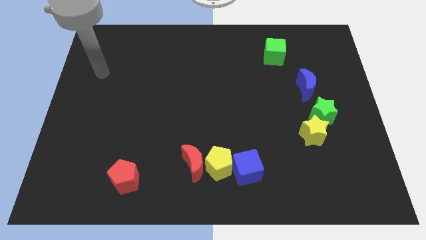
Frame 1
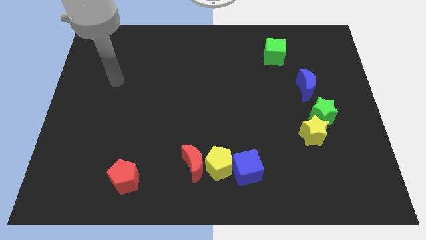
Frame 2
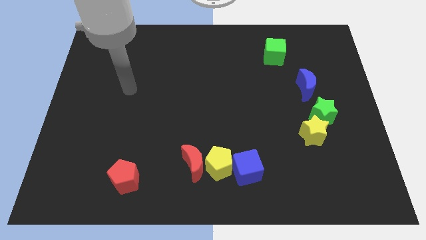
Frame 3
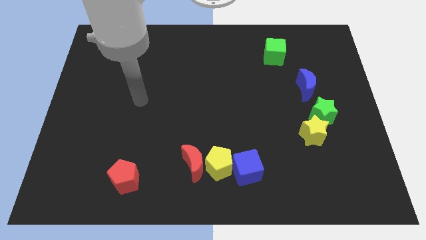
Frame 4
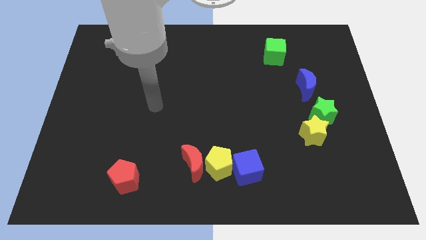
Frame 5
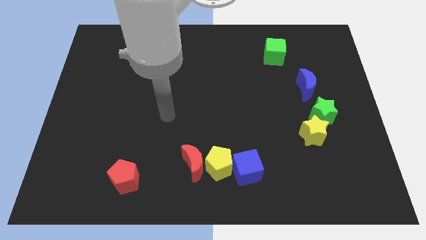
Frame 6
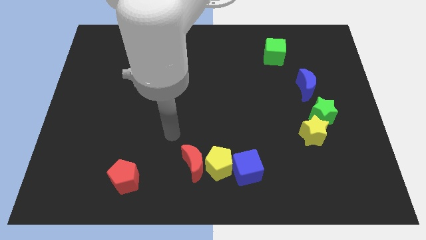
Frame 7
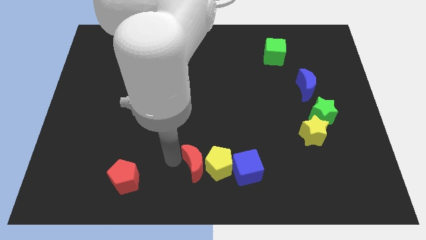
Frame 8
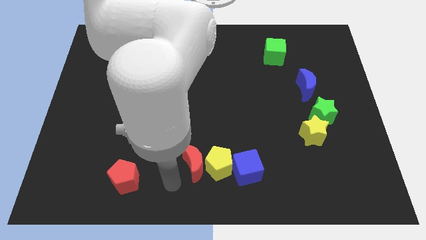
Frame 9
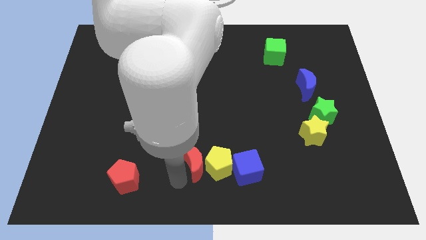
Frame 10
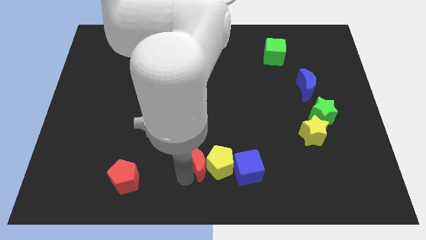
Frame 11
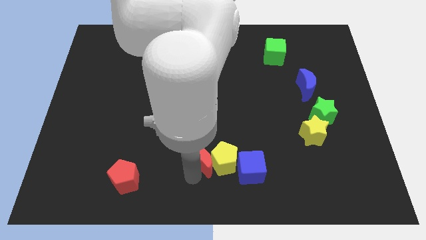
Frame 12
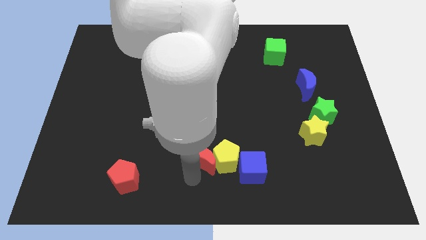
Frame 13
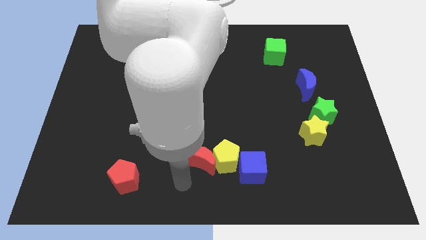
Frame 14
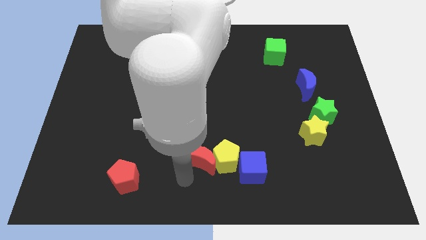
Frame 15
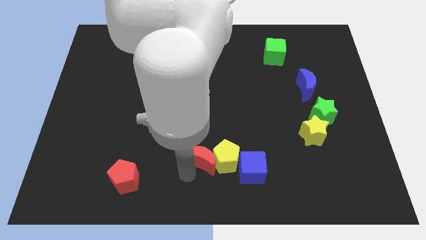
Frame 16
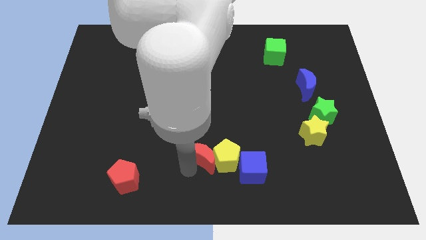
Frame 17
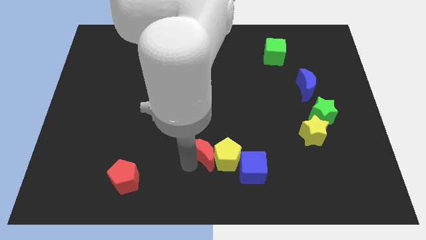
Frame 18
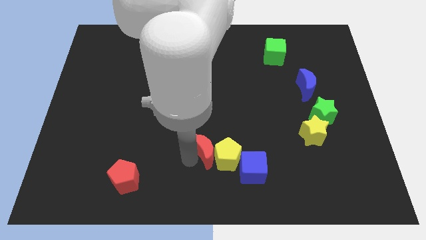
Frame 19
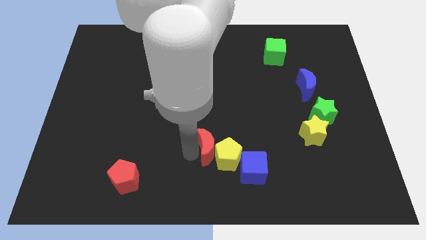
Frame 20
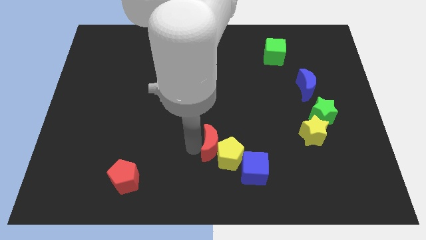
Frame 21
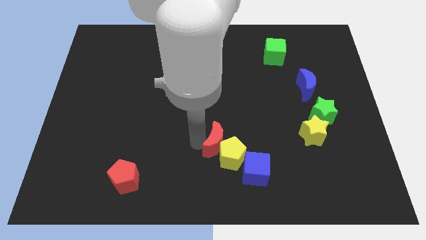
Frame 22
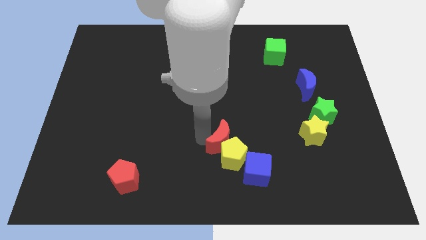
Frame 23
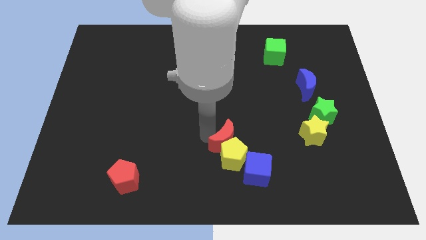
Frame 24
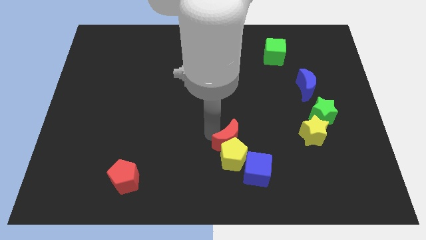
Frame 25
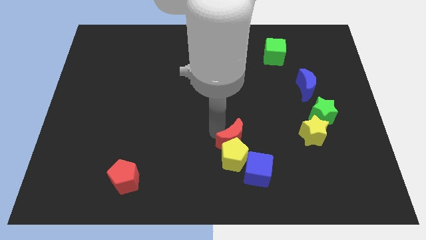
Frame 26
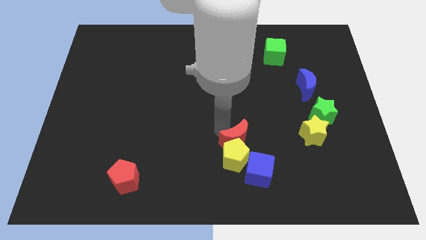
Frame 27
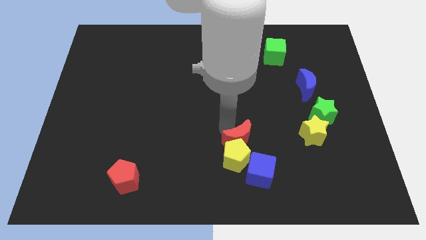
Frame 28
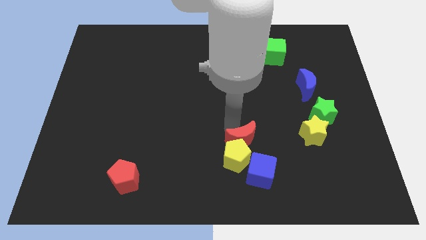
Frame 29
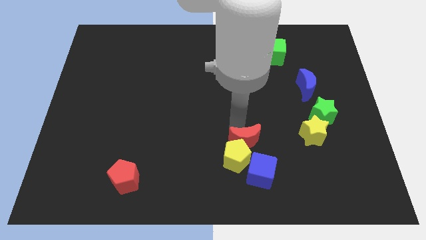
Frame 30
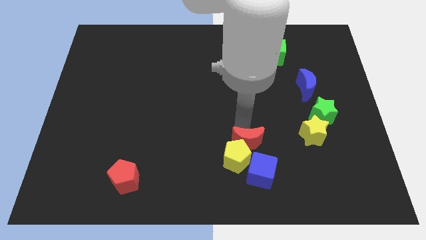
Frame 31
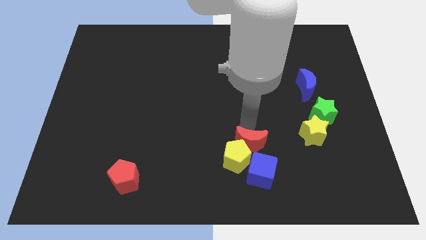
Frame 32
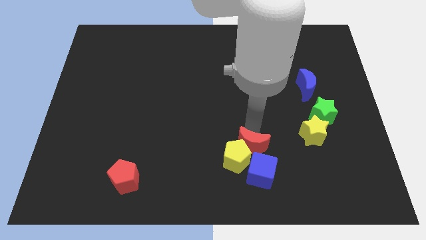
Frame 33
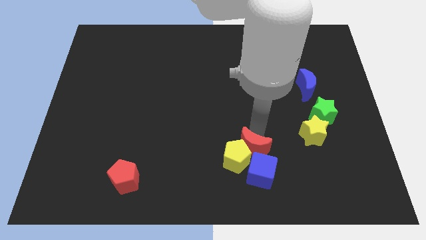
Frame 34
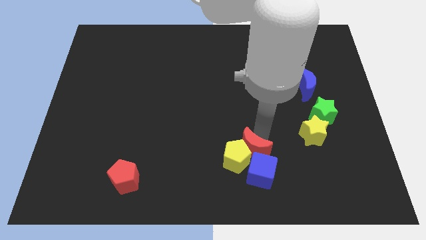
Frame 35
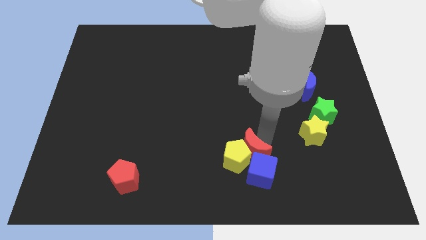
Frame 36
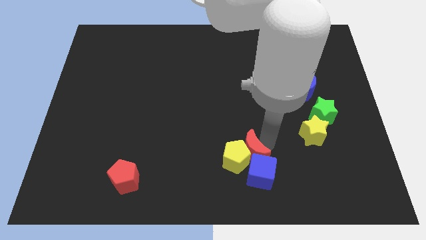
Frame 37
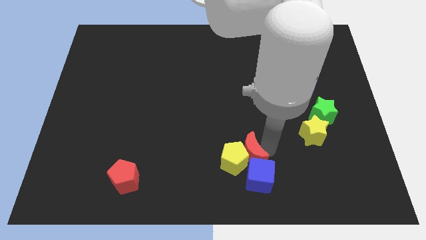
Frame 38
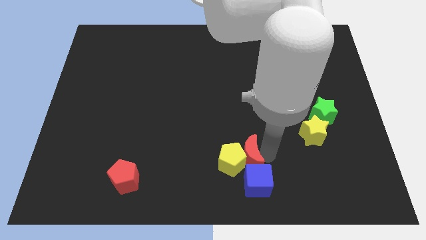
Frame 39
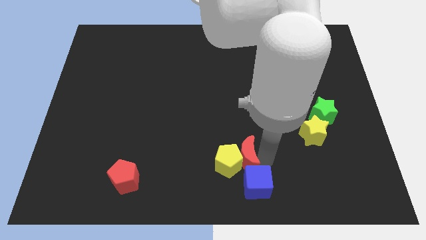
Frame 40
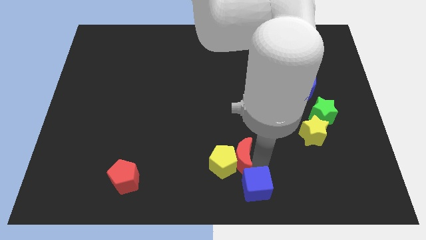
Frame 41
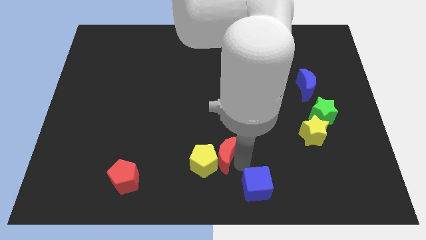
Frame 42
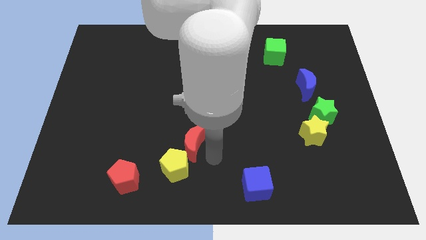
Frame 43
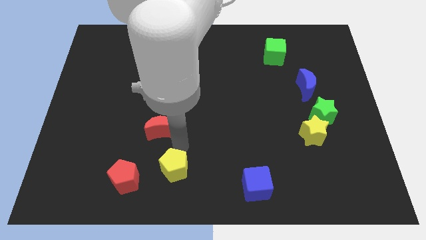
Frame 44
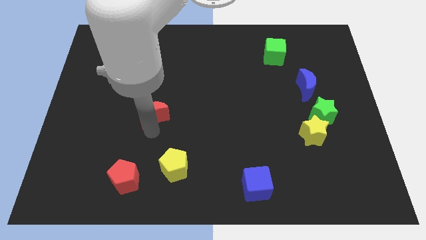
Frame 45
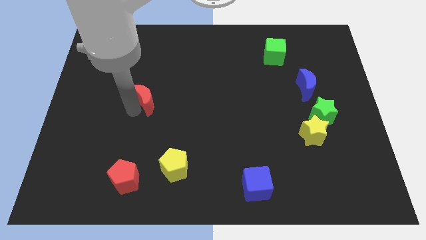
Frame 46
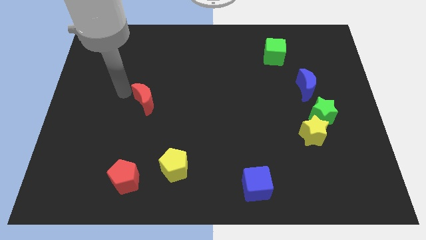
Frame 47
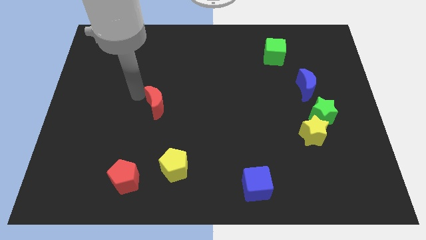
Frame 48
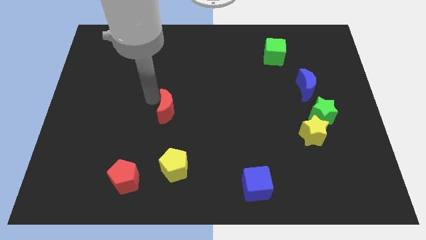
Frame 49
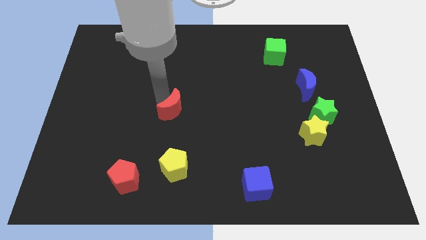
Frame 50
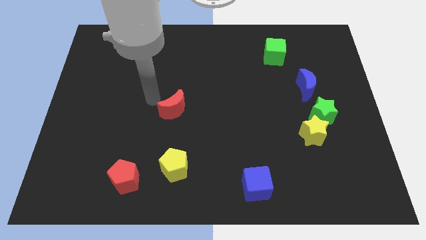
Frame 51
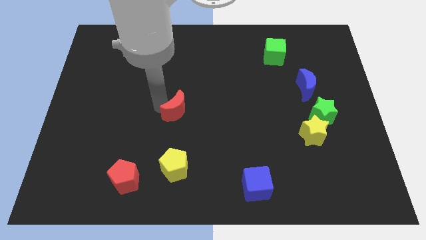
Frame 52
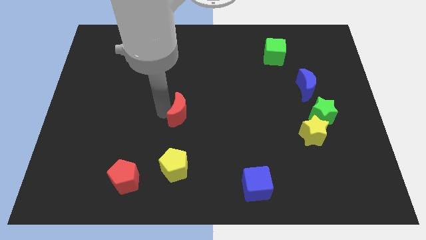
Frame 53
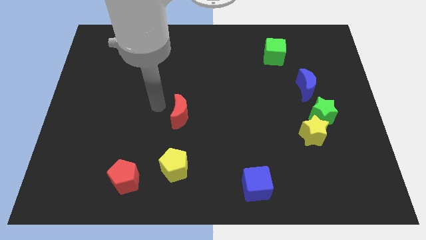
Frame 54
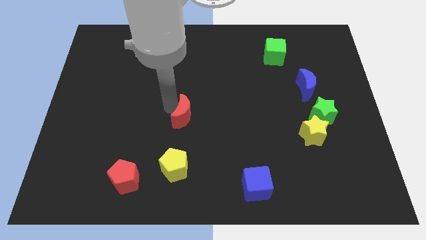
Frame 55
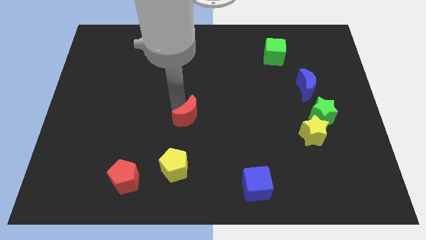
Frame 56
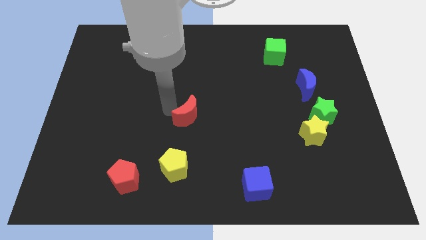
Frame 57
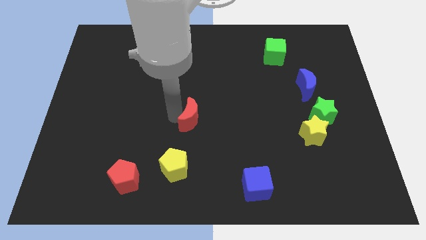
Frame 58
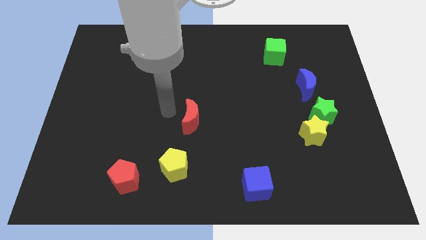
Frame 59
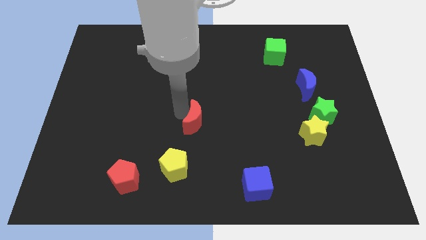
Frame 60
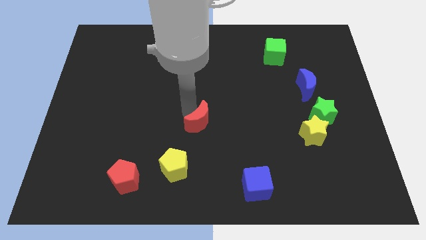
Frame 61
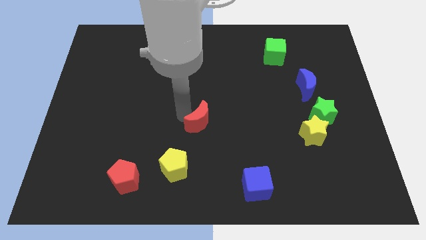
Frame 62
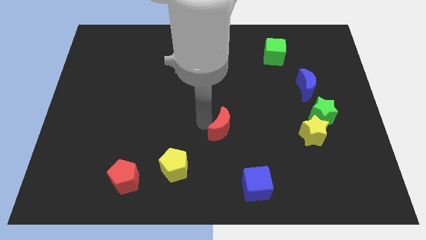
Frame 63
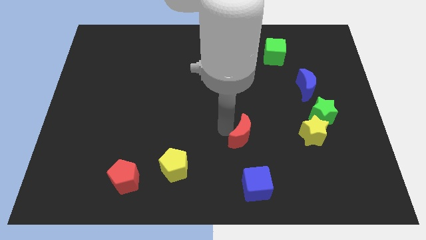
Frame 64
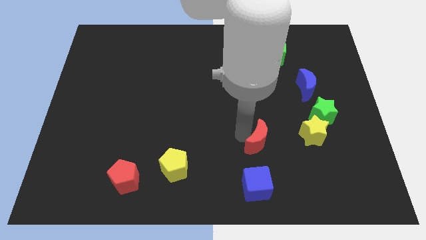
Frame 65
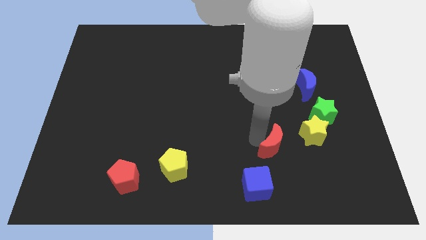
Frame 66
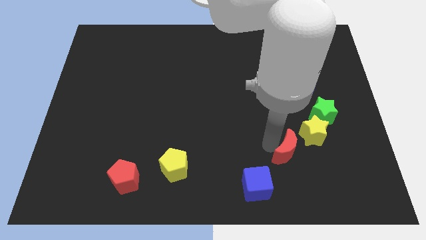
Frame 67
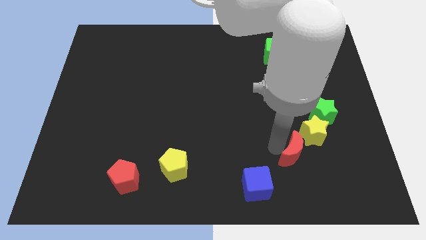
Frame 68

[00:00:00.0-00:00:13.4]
slide the red moon to the right

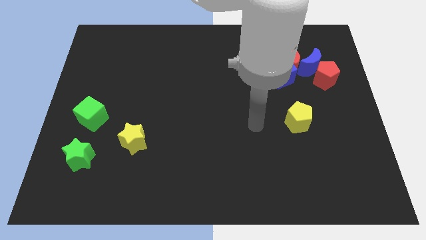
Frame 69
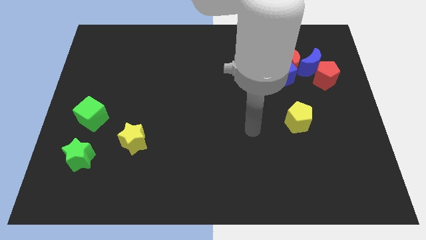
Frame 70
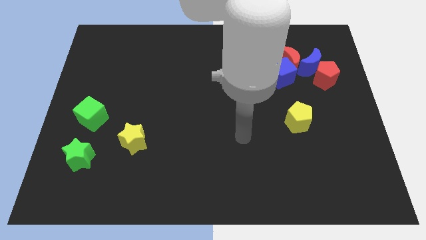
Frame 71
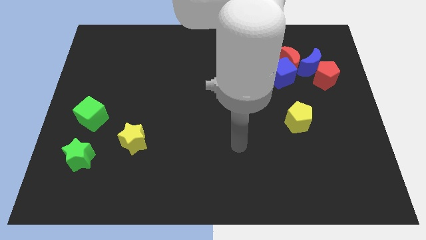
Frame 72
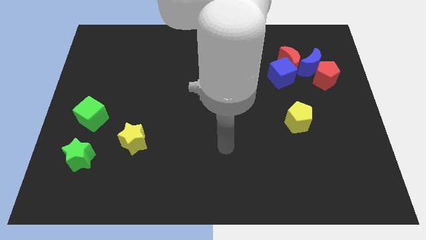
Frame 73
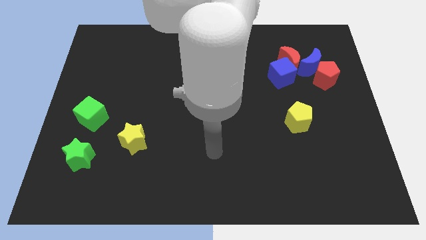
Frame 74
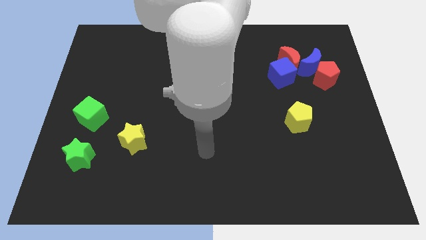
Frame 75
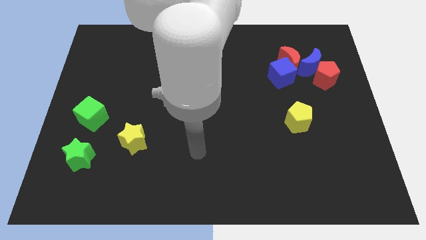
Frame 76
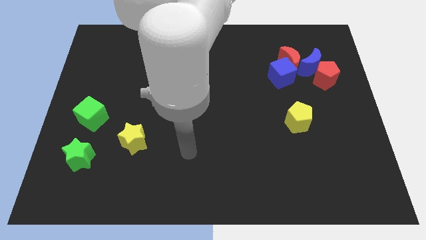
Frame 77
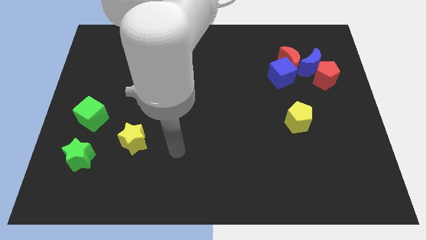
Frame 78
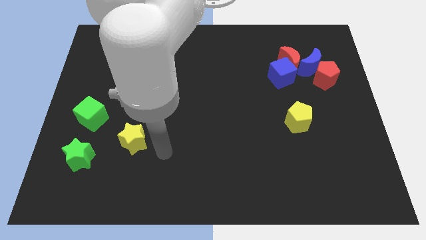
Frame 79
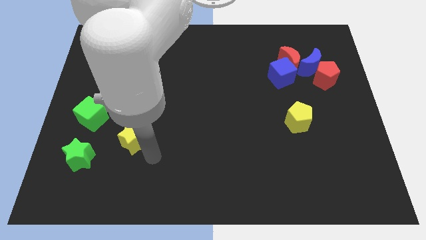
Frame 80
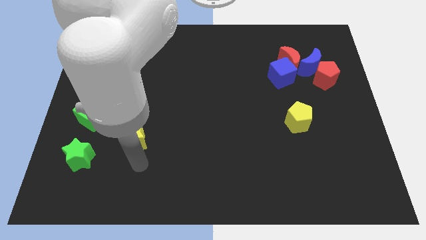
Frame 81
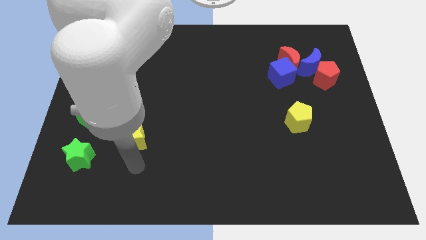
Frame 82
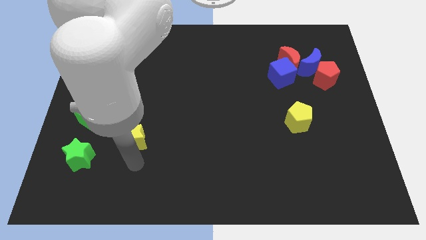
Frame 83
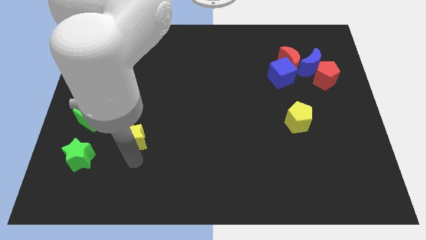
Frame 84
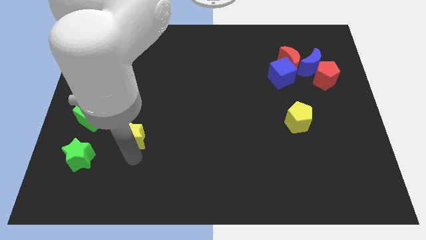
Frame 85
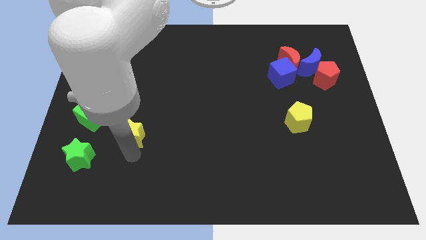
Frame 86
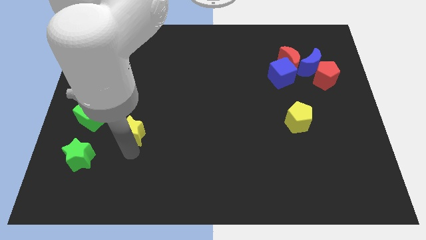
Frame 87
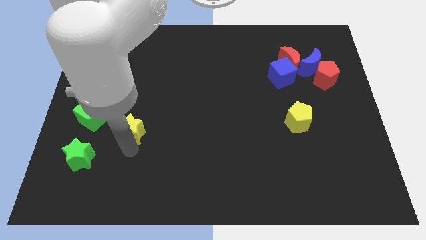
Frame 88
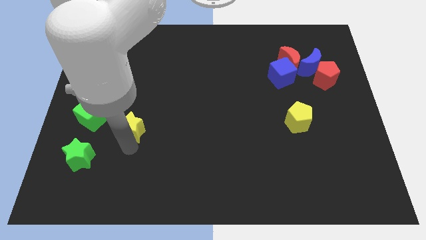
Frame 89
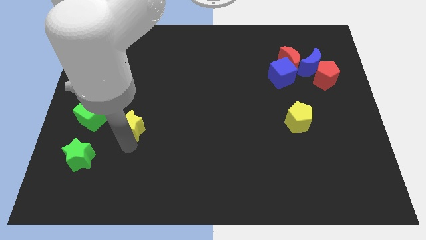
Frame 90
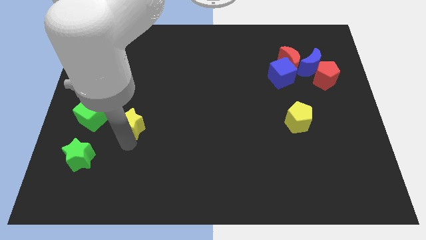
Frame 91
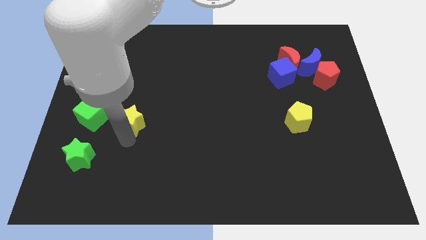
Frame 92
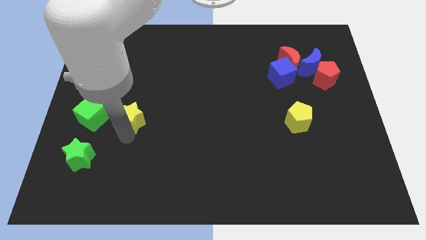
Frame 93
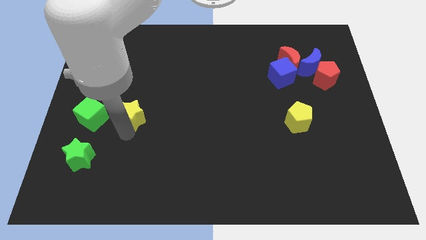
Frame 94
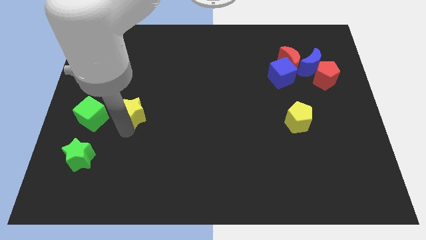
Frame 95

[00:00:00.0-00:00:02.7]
move the yellow star up somewhat
